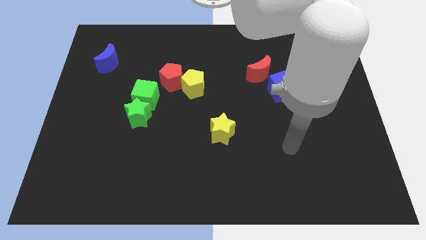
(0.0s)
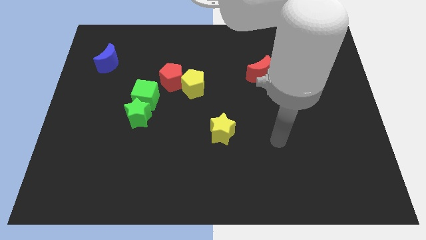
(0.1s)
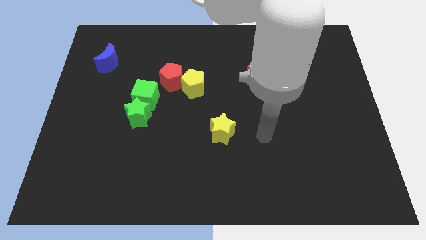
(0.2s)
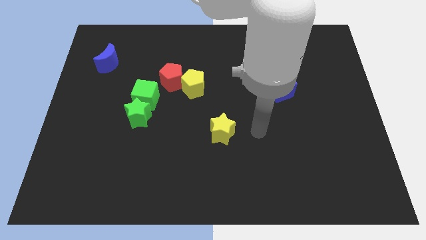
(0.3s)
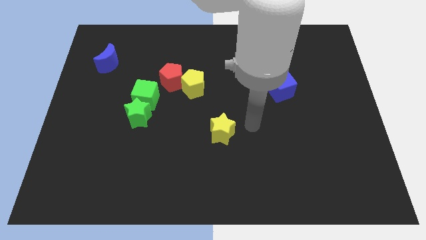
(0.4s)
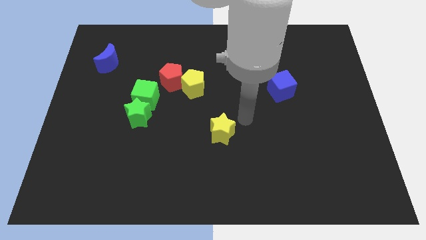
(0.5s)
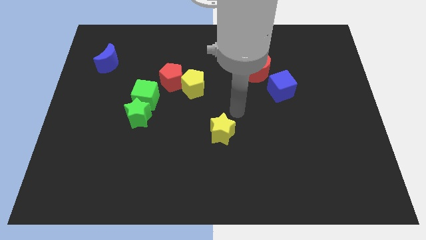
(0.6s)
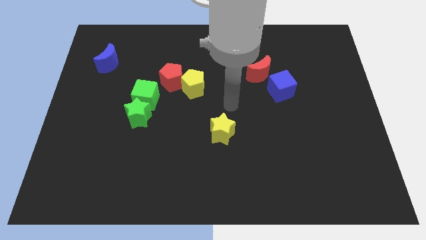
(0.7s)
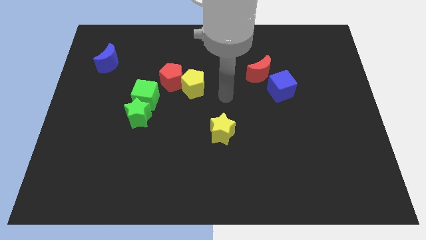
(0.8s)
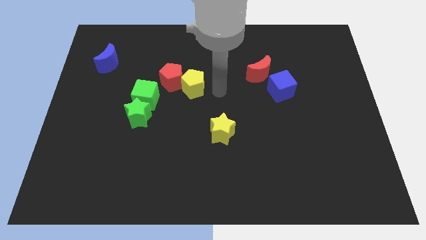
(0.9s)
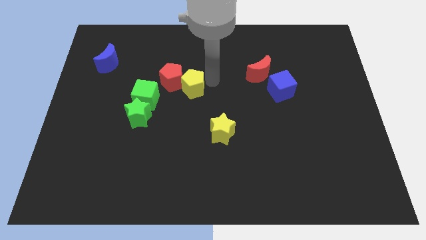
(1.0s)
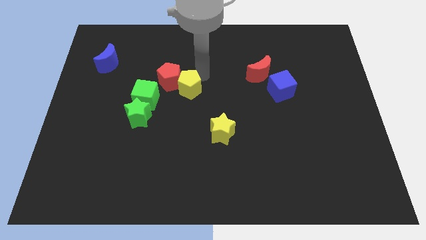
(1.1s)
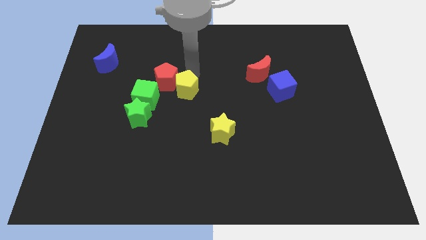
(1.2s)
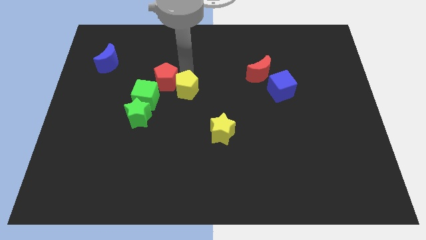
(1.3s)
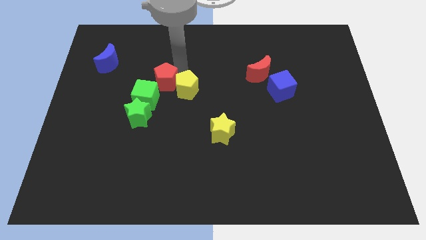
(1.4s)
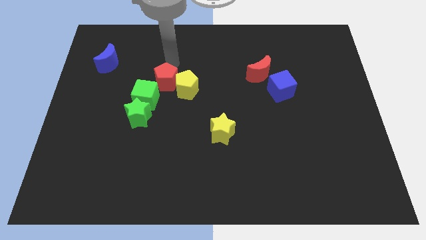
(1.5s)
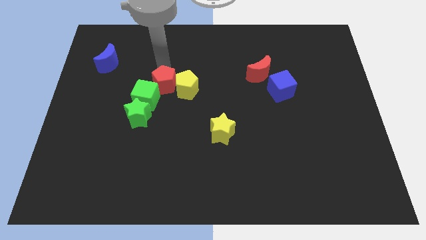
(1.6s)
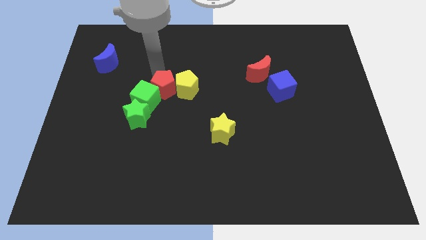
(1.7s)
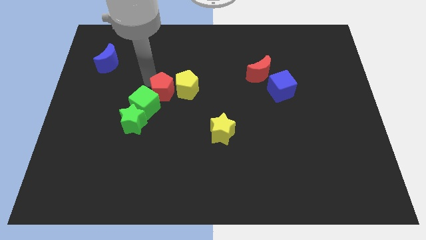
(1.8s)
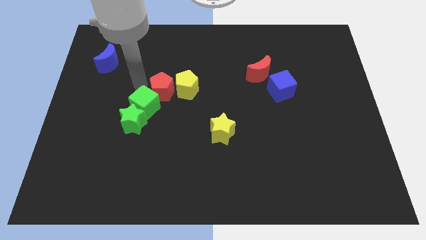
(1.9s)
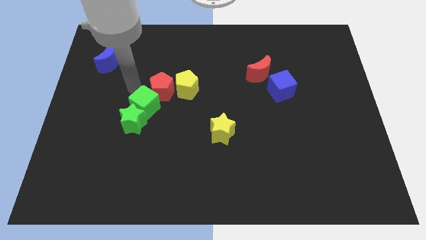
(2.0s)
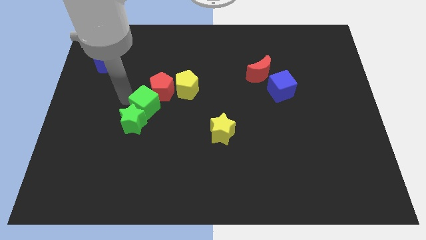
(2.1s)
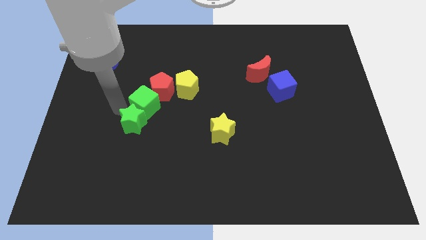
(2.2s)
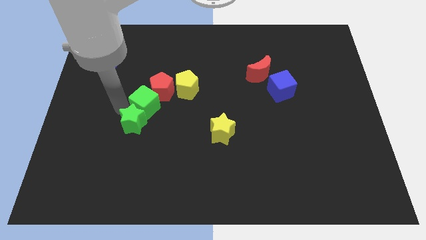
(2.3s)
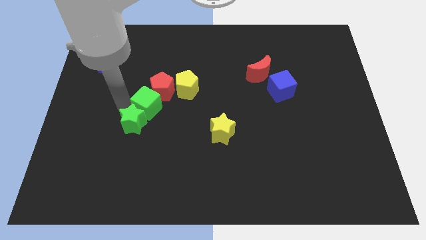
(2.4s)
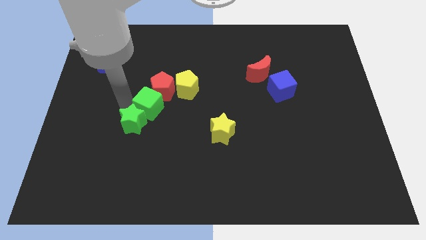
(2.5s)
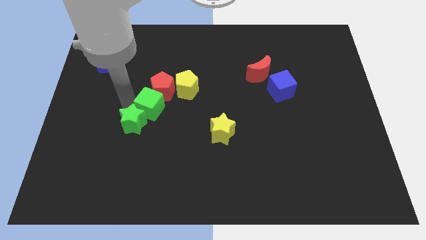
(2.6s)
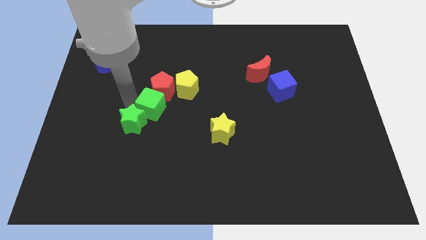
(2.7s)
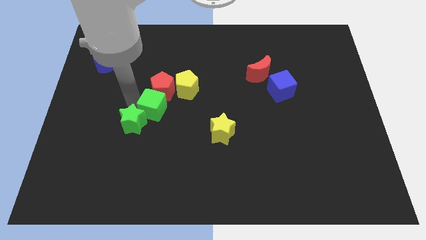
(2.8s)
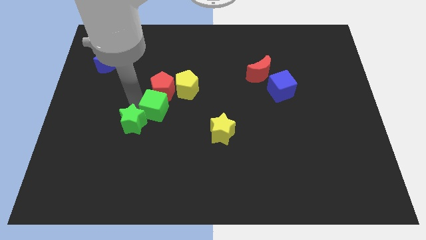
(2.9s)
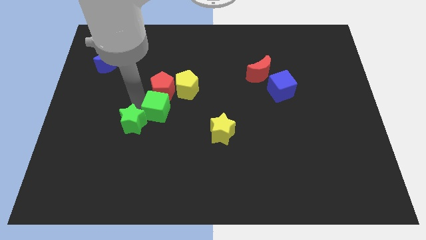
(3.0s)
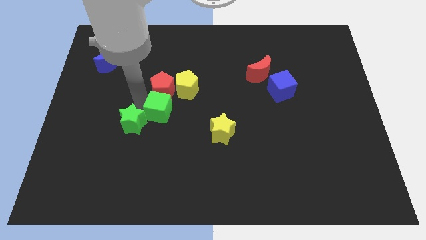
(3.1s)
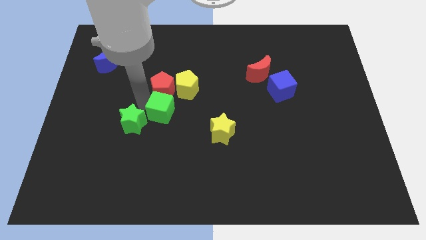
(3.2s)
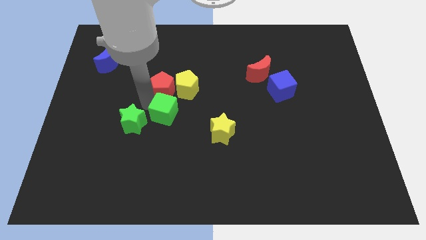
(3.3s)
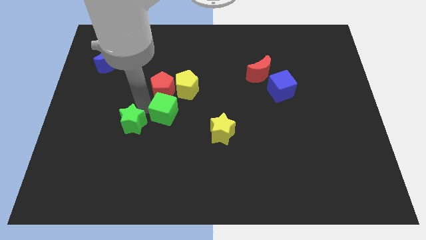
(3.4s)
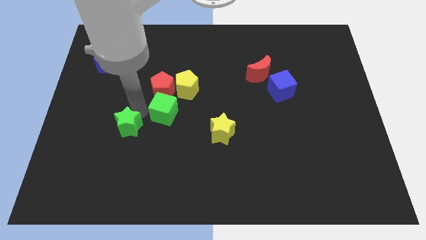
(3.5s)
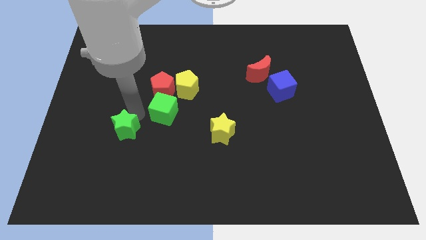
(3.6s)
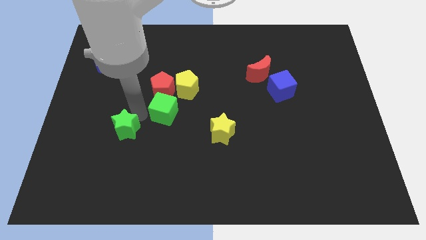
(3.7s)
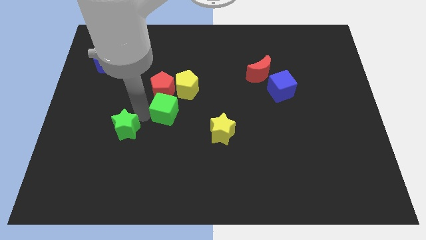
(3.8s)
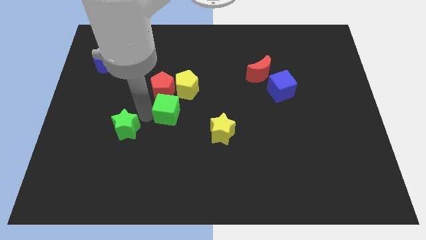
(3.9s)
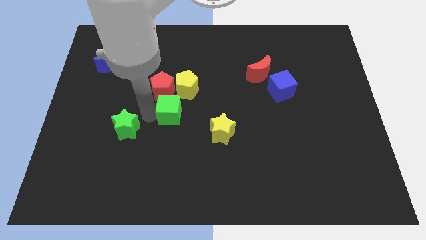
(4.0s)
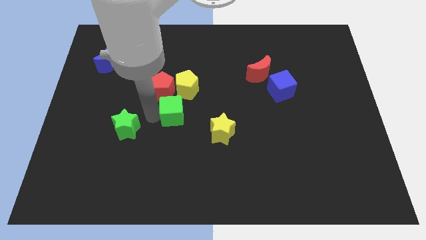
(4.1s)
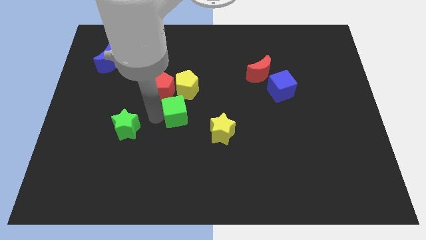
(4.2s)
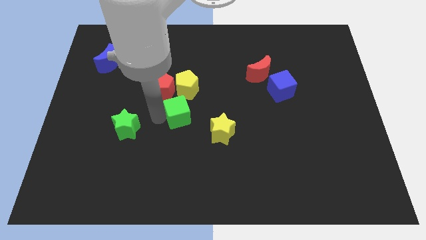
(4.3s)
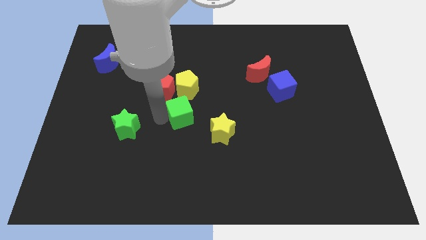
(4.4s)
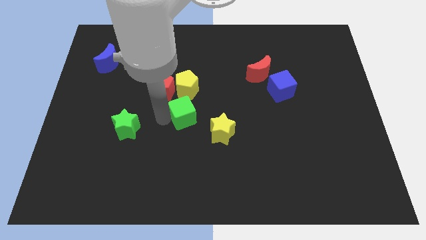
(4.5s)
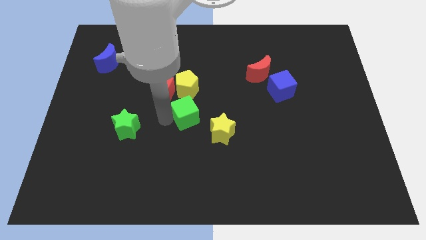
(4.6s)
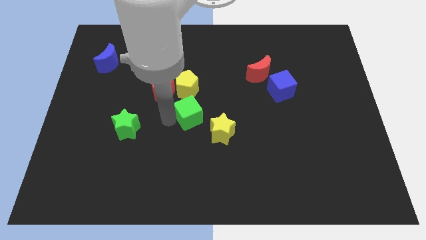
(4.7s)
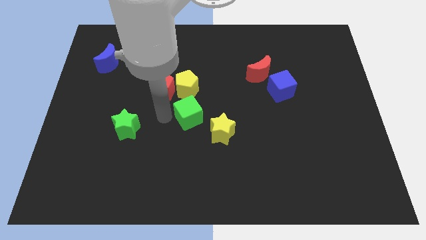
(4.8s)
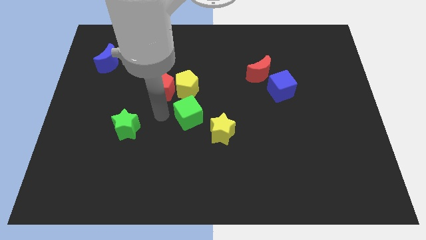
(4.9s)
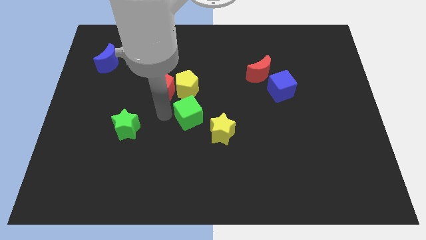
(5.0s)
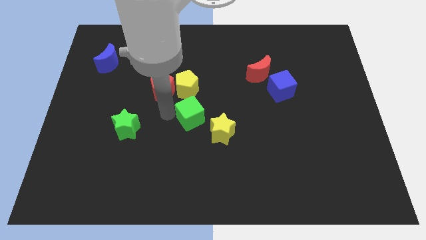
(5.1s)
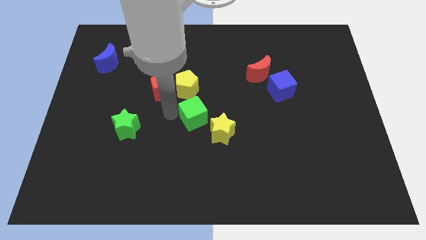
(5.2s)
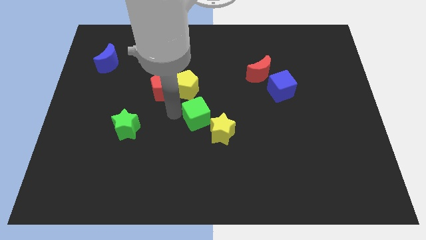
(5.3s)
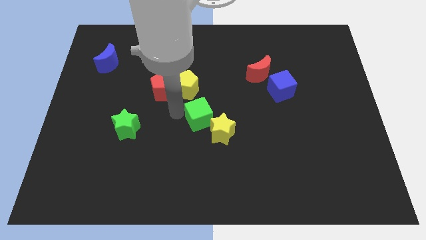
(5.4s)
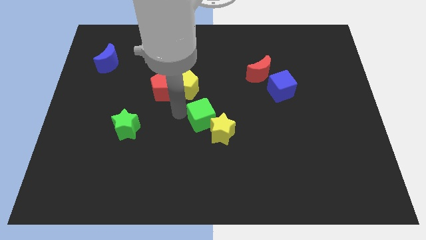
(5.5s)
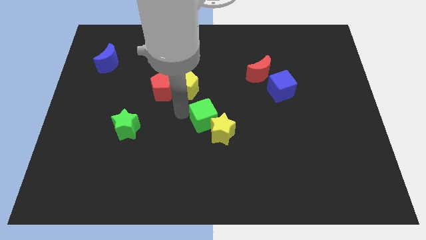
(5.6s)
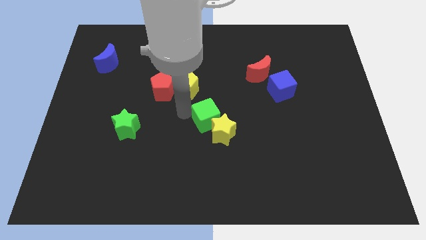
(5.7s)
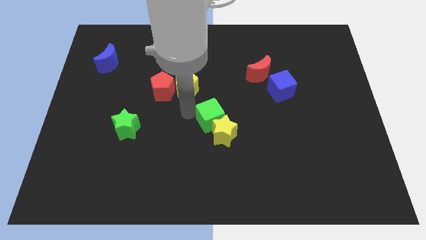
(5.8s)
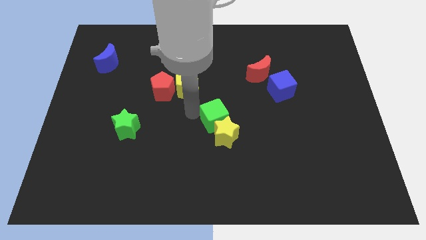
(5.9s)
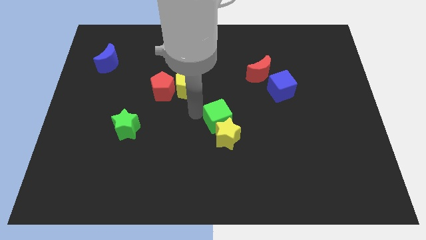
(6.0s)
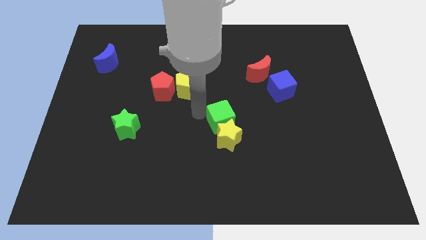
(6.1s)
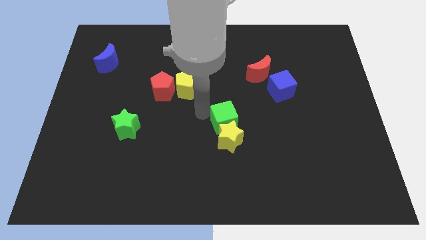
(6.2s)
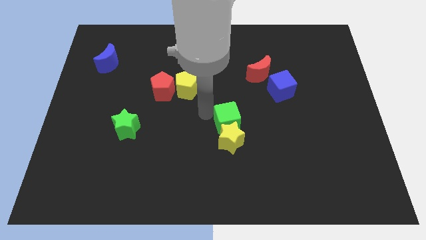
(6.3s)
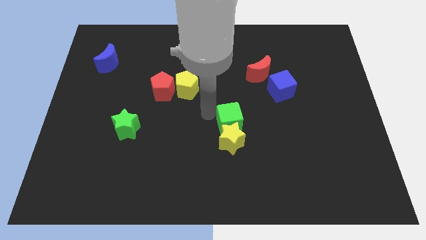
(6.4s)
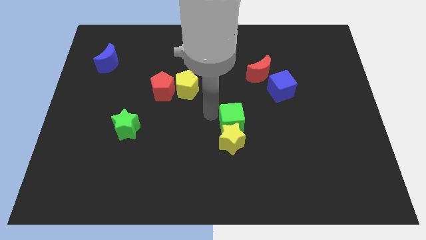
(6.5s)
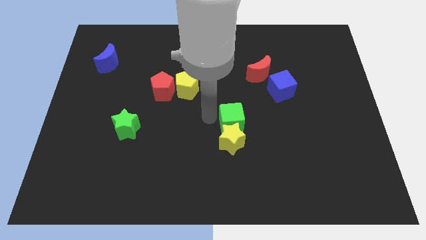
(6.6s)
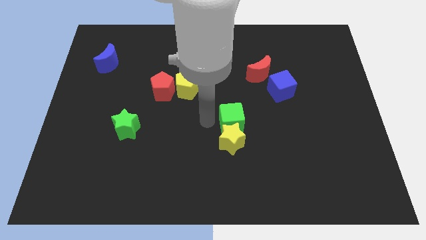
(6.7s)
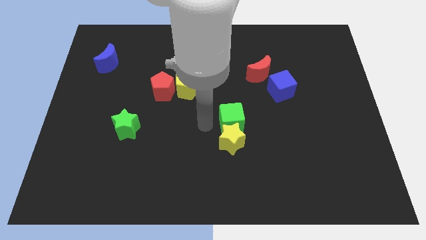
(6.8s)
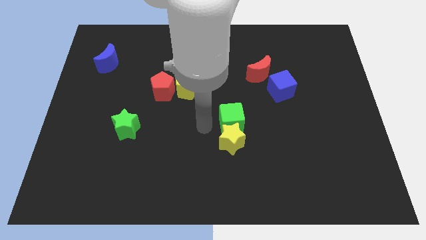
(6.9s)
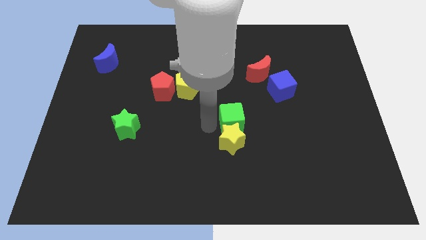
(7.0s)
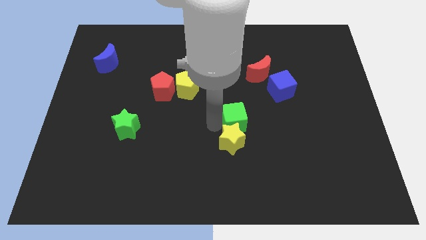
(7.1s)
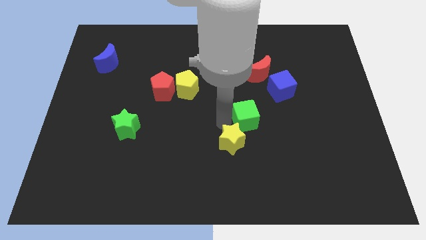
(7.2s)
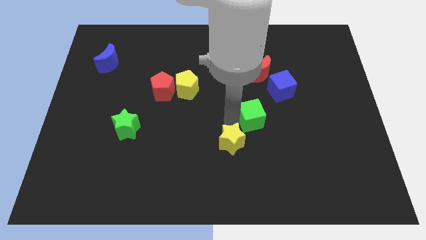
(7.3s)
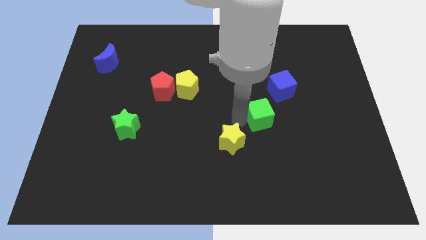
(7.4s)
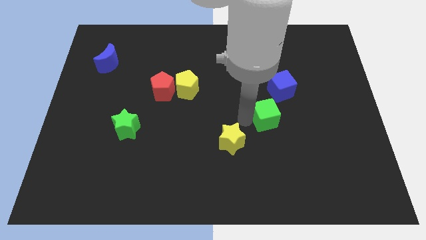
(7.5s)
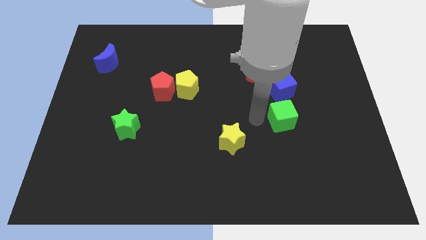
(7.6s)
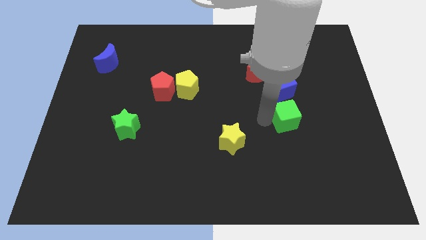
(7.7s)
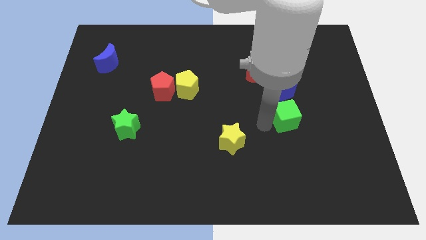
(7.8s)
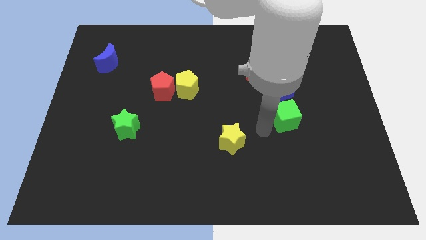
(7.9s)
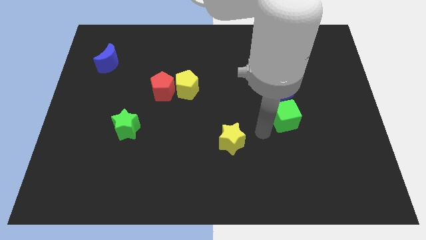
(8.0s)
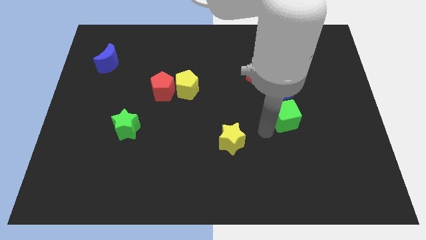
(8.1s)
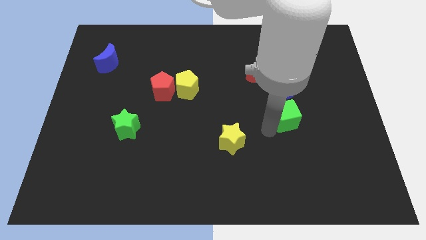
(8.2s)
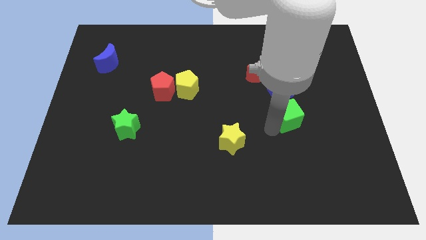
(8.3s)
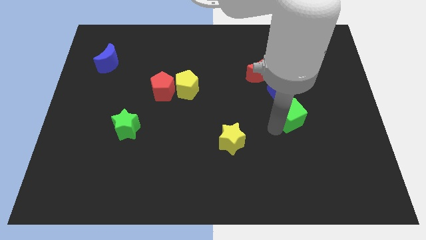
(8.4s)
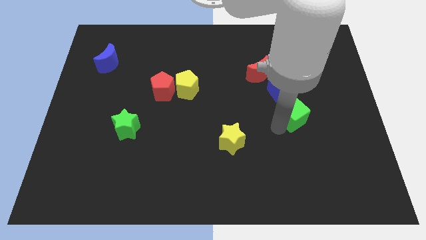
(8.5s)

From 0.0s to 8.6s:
slide the green cube to the bottom right side of the blue cube
